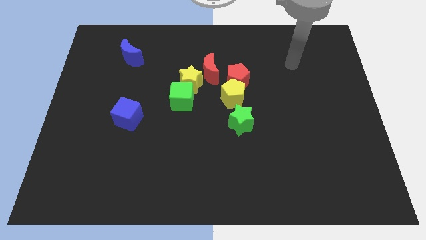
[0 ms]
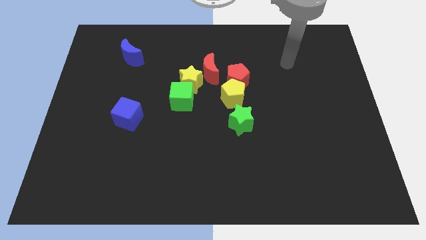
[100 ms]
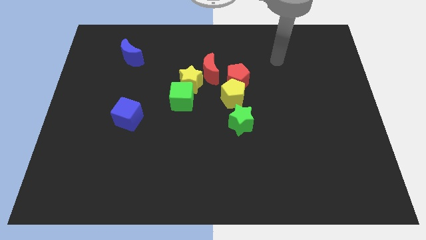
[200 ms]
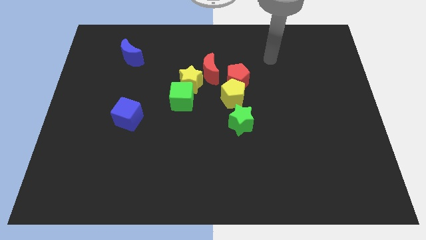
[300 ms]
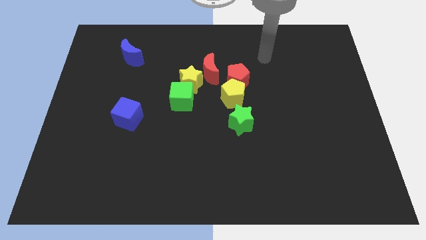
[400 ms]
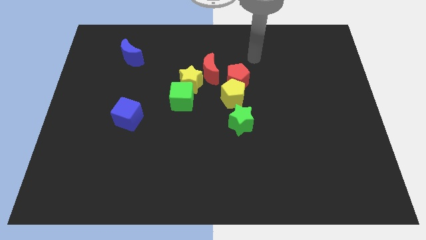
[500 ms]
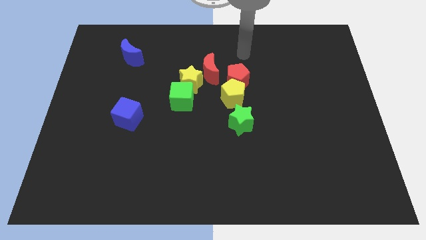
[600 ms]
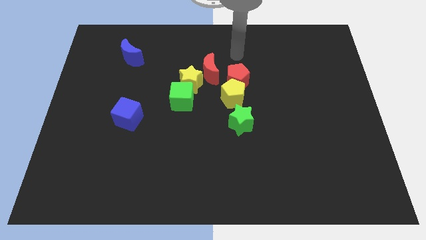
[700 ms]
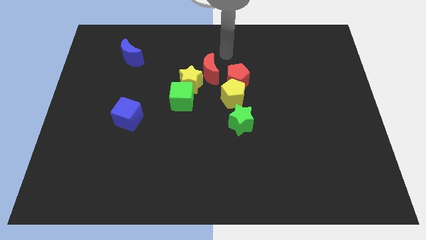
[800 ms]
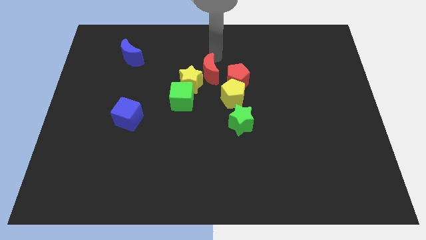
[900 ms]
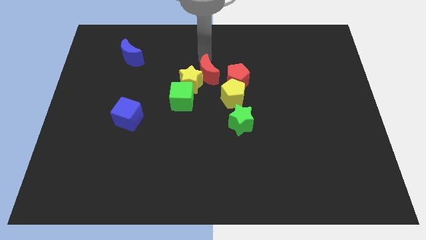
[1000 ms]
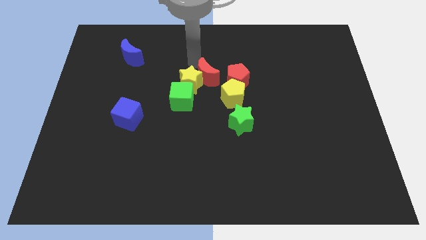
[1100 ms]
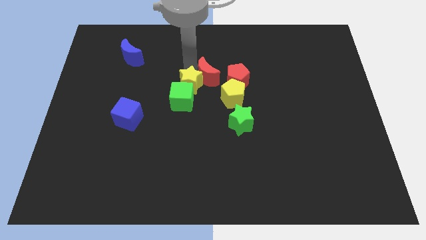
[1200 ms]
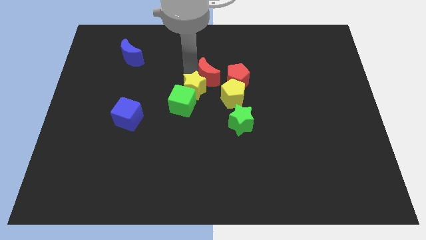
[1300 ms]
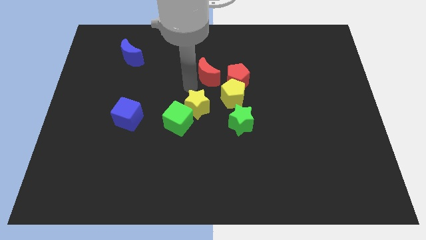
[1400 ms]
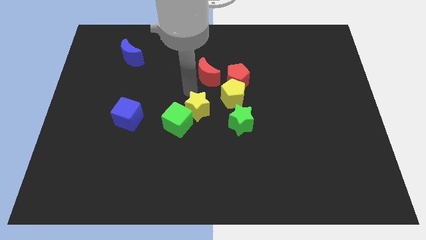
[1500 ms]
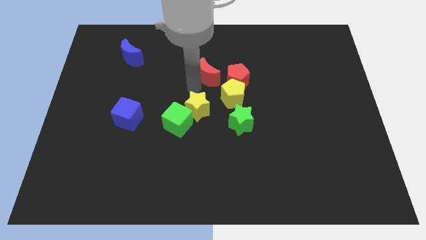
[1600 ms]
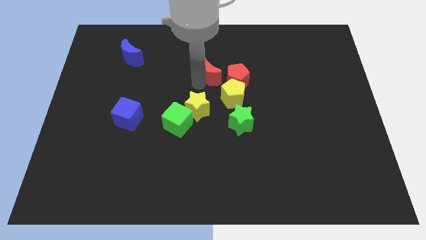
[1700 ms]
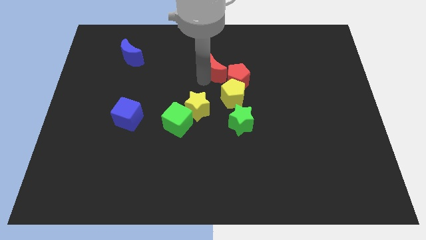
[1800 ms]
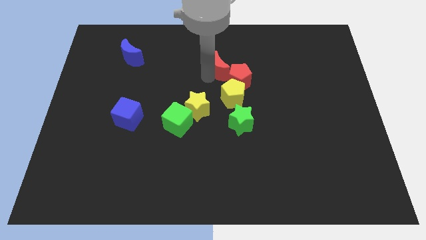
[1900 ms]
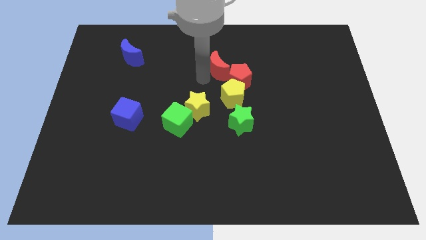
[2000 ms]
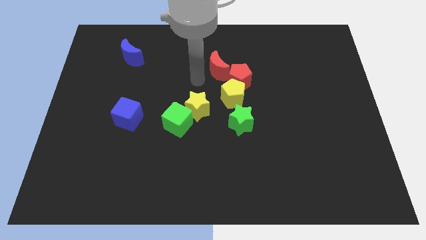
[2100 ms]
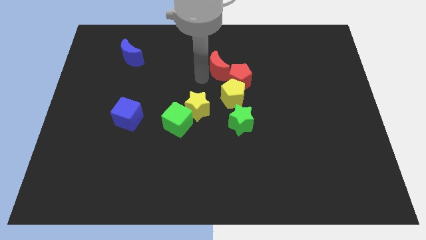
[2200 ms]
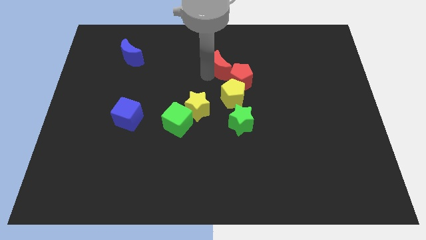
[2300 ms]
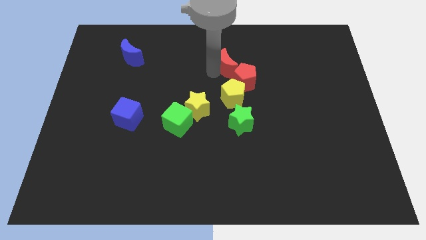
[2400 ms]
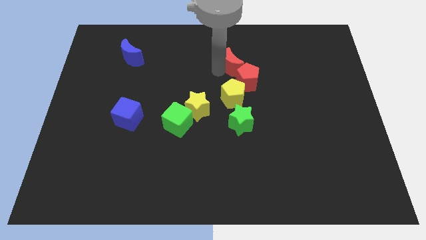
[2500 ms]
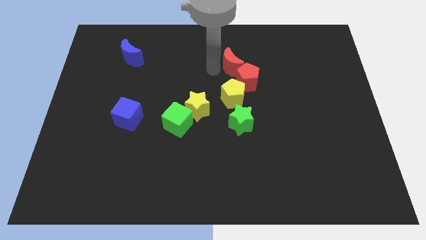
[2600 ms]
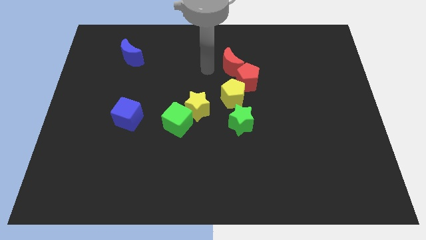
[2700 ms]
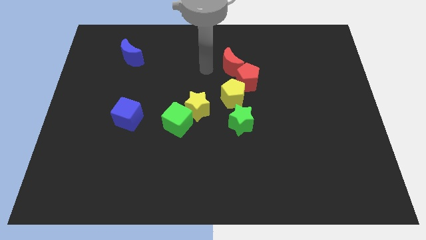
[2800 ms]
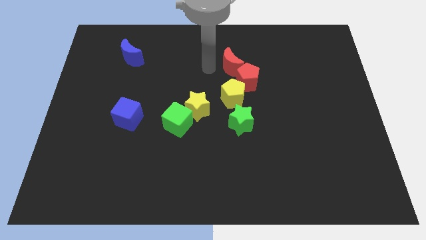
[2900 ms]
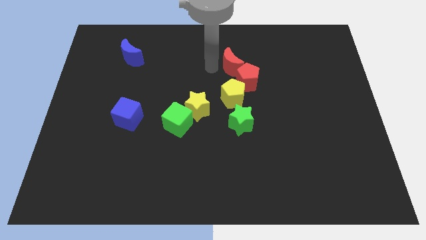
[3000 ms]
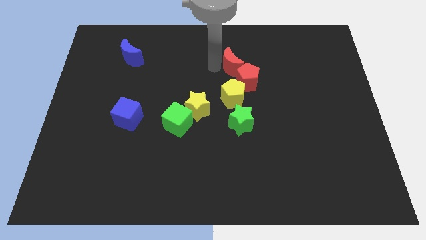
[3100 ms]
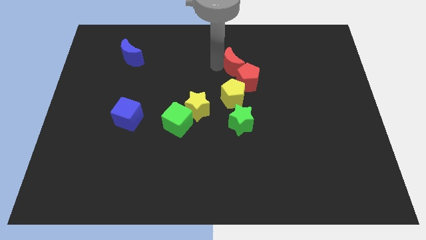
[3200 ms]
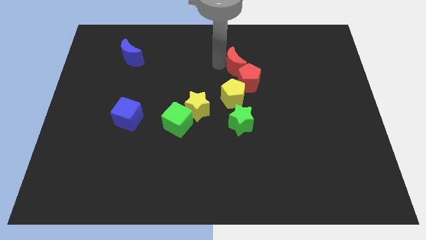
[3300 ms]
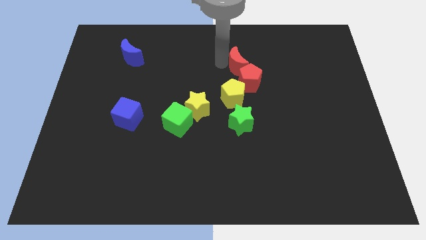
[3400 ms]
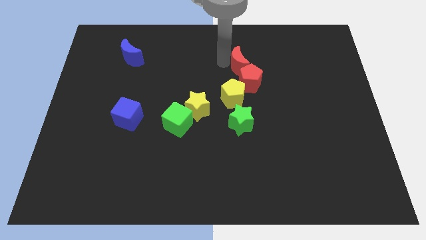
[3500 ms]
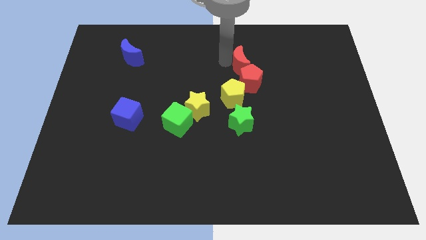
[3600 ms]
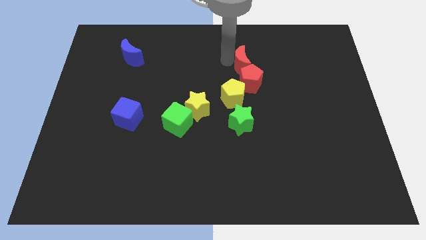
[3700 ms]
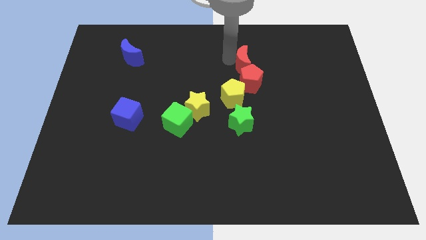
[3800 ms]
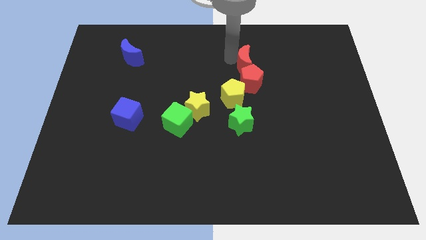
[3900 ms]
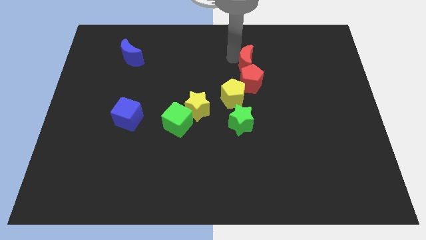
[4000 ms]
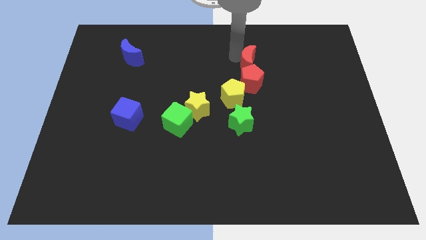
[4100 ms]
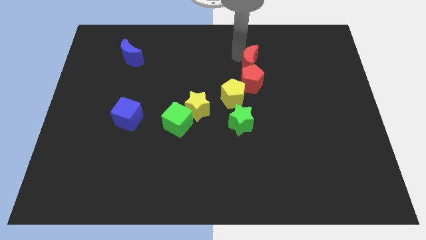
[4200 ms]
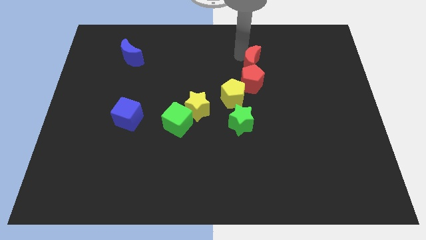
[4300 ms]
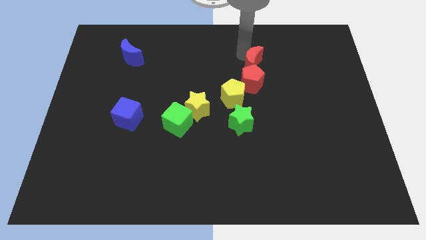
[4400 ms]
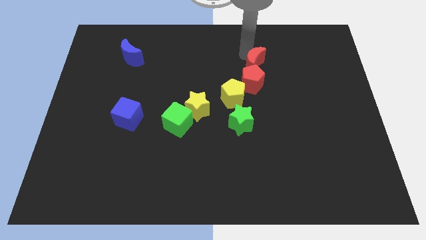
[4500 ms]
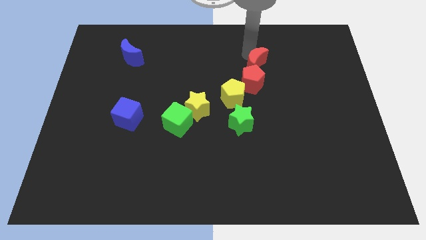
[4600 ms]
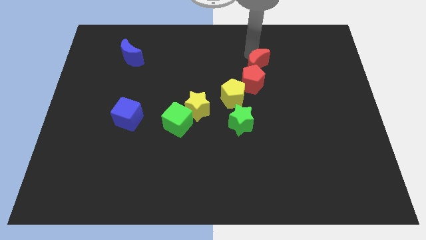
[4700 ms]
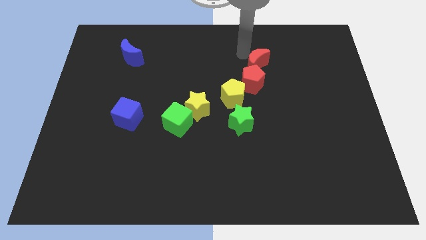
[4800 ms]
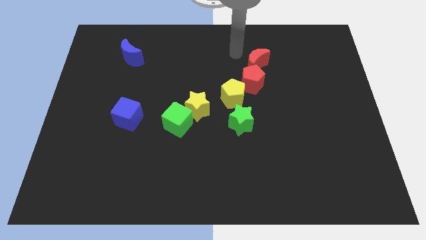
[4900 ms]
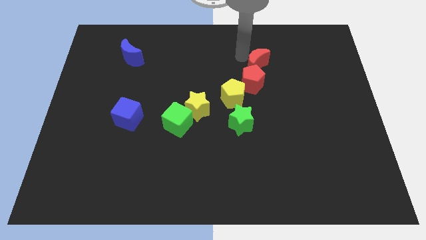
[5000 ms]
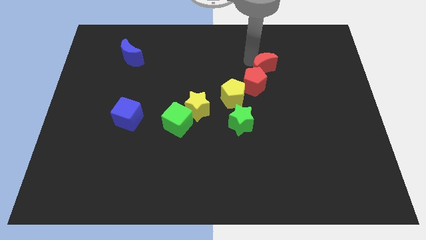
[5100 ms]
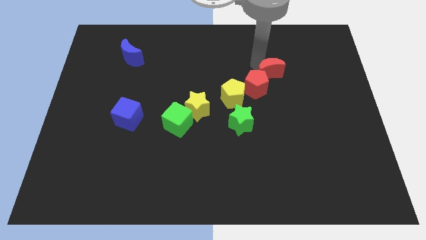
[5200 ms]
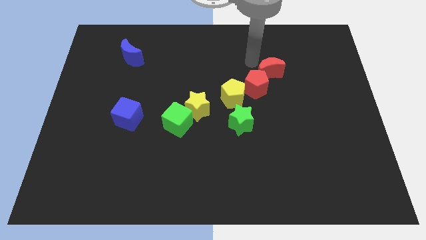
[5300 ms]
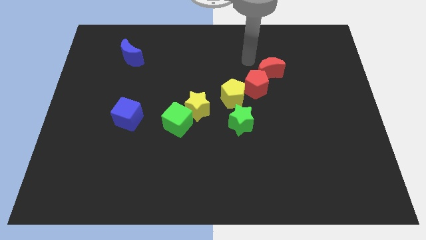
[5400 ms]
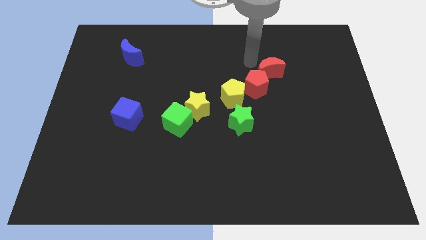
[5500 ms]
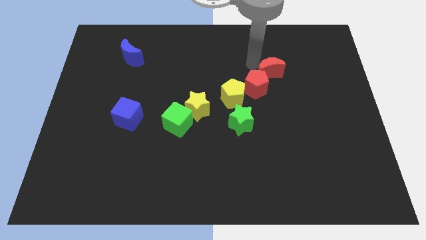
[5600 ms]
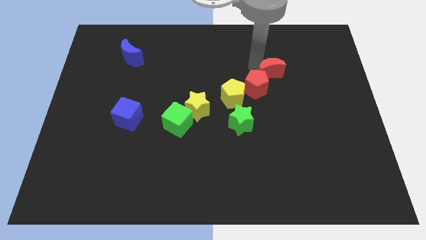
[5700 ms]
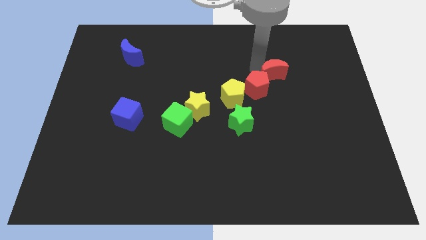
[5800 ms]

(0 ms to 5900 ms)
put the red moon to the right side of the red pentagon

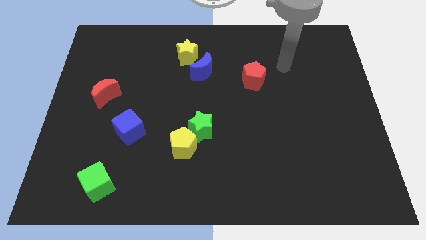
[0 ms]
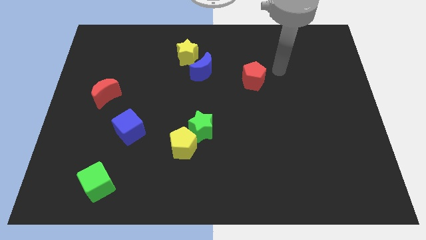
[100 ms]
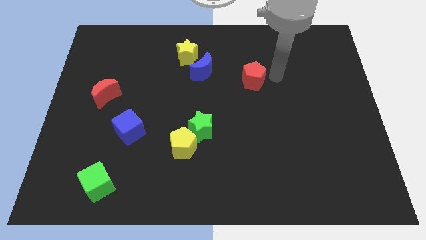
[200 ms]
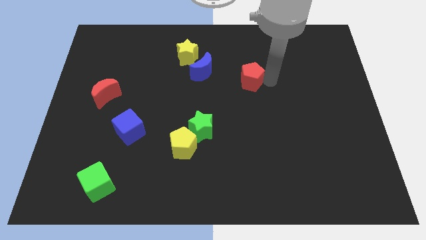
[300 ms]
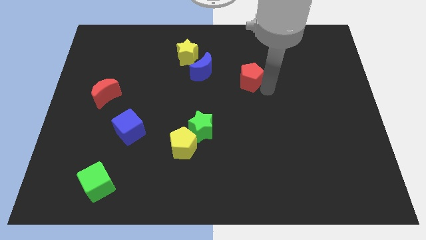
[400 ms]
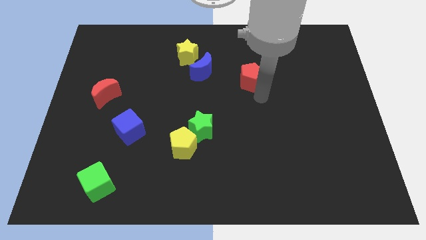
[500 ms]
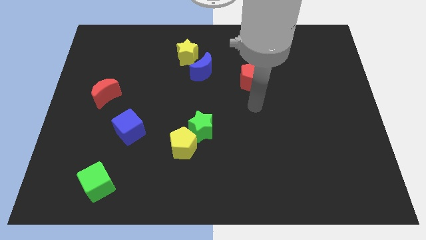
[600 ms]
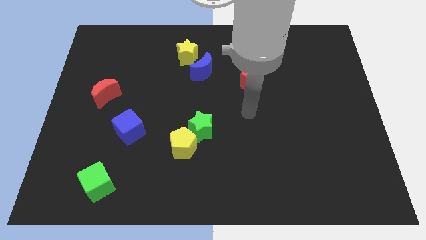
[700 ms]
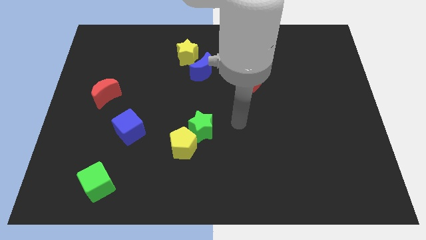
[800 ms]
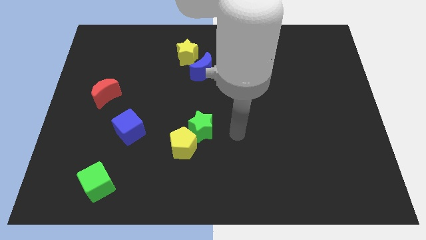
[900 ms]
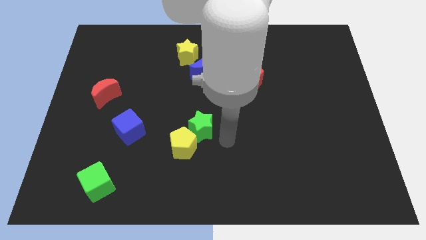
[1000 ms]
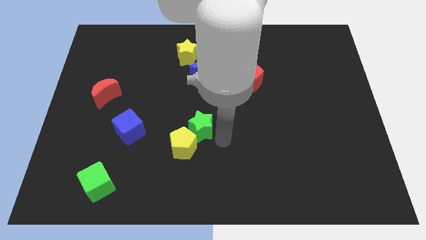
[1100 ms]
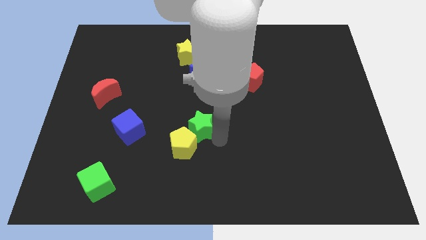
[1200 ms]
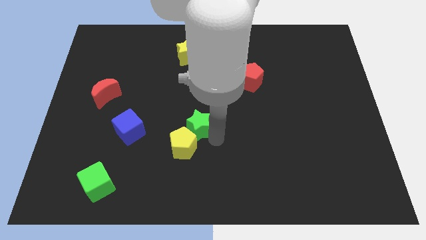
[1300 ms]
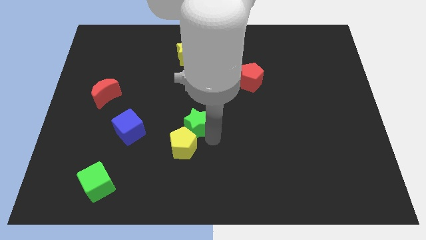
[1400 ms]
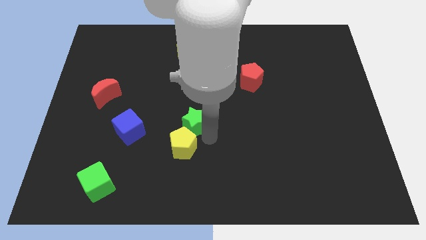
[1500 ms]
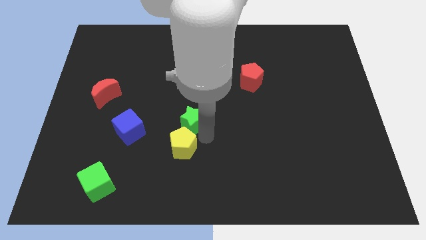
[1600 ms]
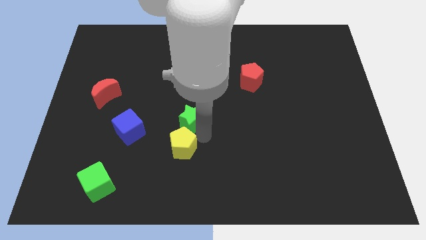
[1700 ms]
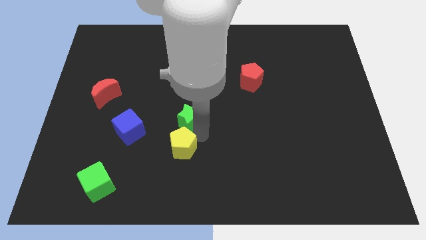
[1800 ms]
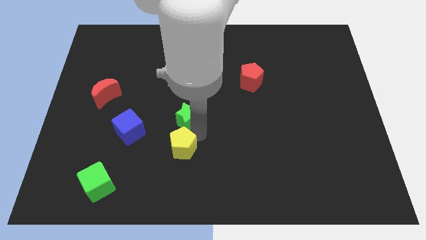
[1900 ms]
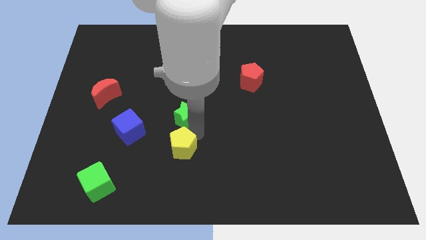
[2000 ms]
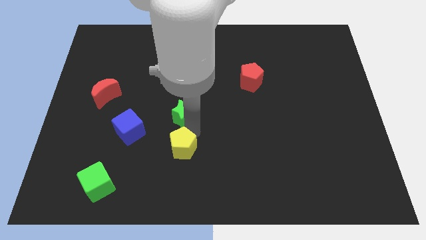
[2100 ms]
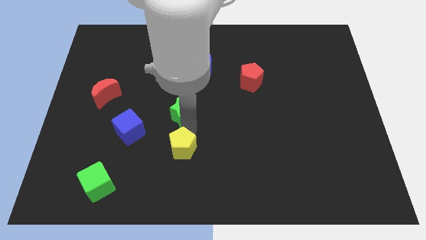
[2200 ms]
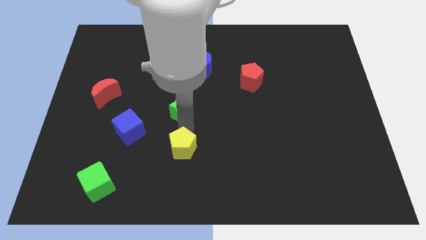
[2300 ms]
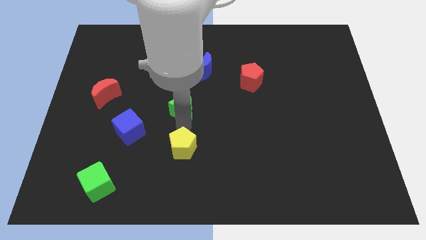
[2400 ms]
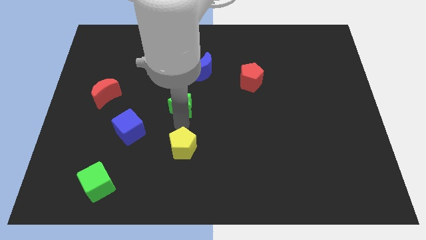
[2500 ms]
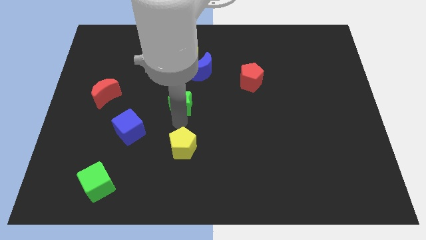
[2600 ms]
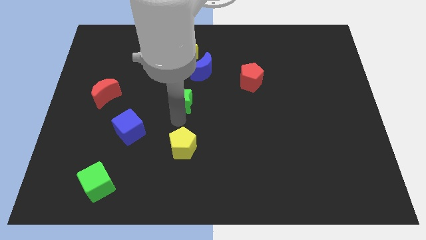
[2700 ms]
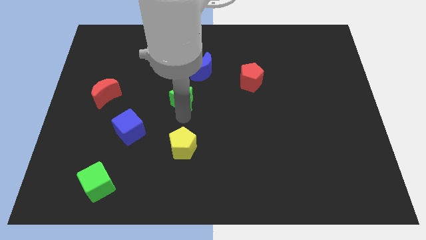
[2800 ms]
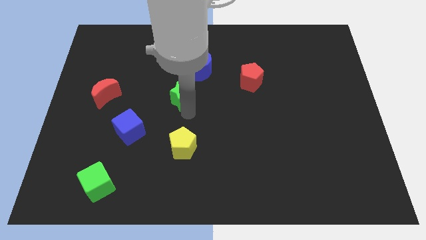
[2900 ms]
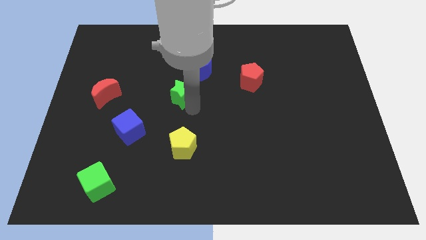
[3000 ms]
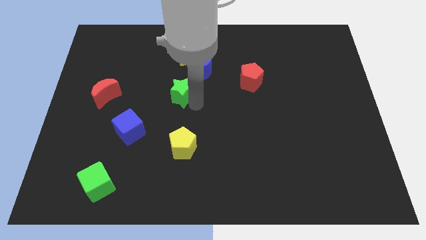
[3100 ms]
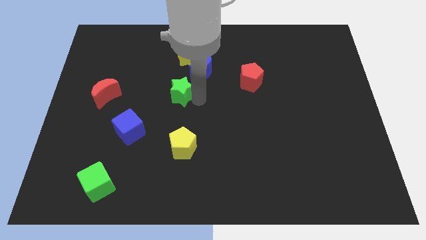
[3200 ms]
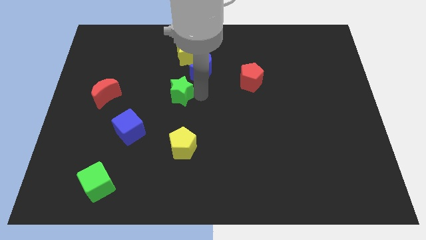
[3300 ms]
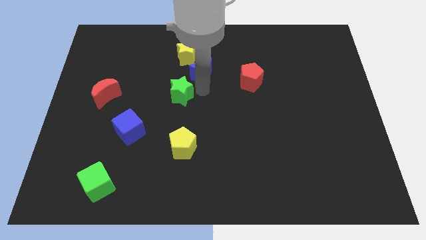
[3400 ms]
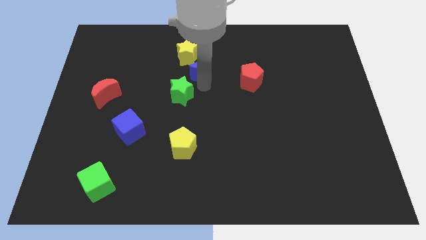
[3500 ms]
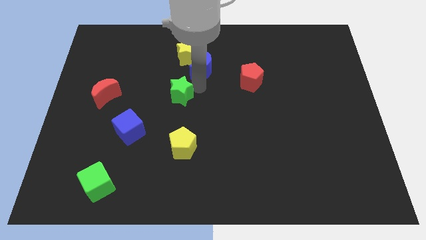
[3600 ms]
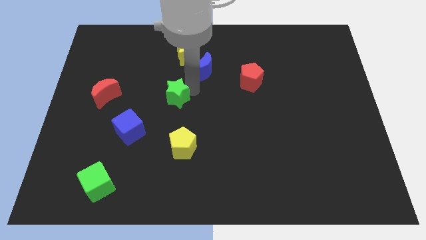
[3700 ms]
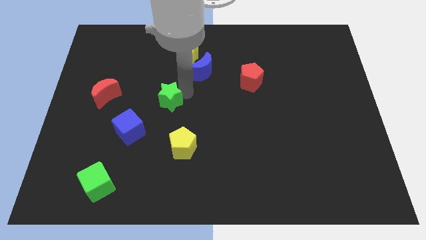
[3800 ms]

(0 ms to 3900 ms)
put the green star to the right side of the red moon
